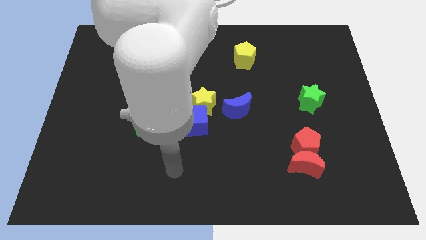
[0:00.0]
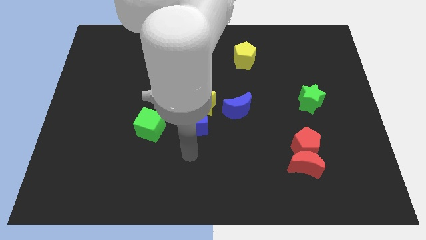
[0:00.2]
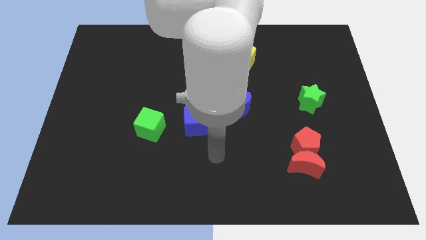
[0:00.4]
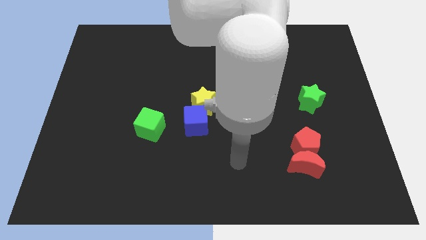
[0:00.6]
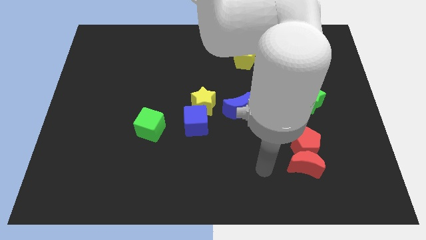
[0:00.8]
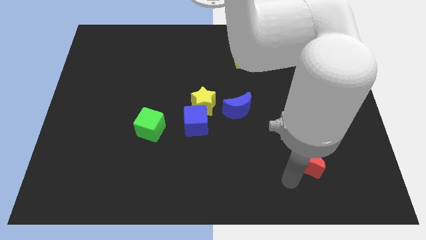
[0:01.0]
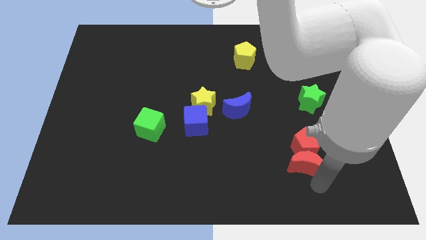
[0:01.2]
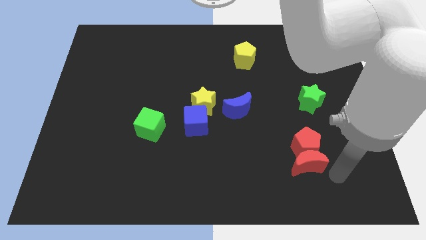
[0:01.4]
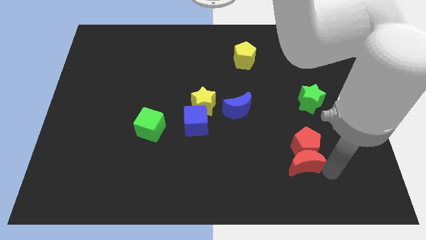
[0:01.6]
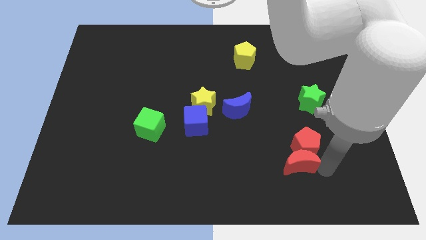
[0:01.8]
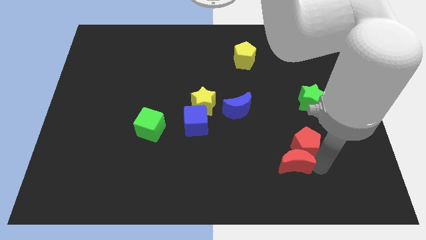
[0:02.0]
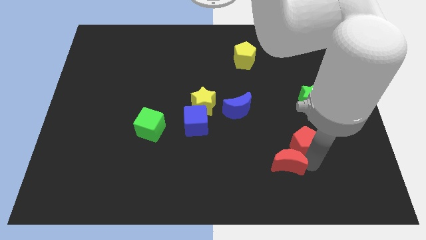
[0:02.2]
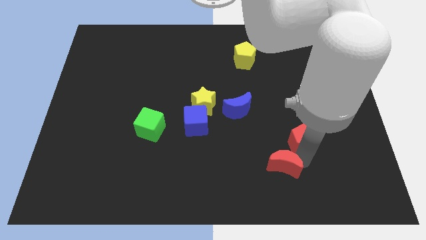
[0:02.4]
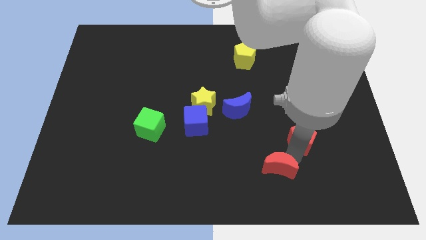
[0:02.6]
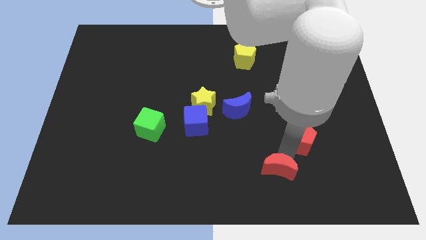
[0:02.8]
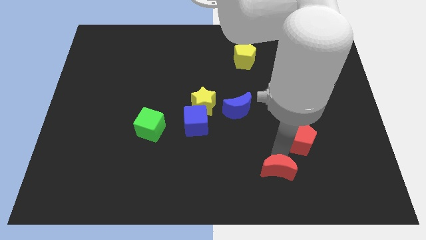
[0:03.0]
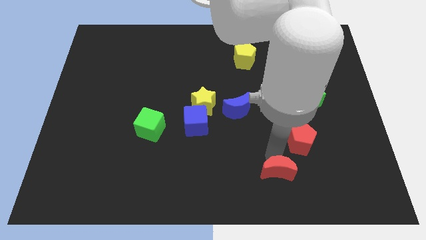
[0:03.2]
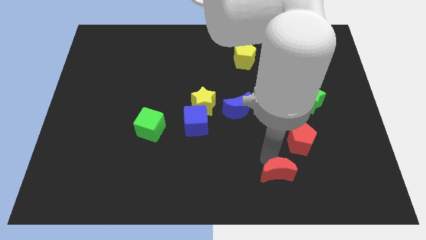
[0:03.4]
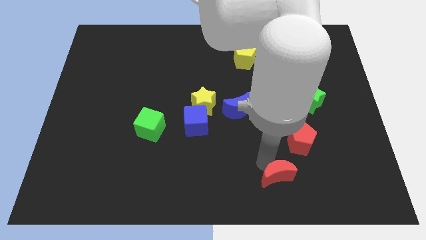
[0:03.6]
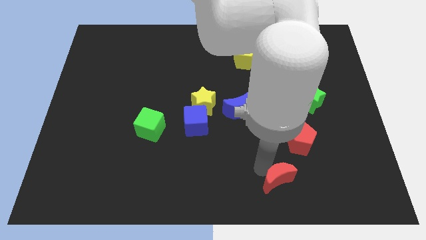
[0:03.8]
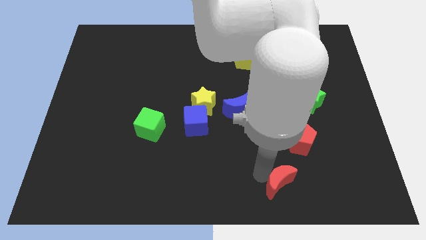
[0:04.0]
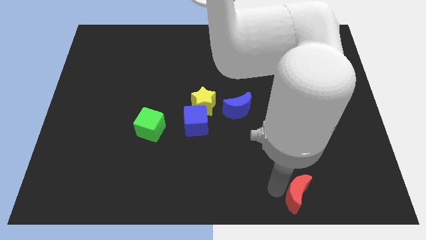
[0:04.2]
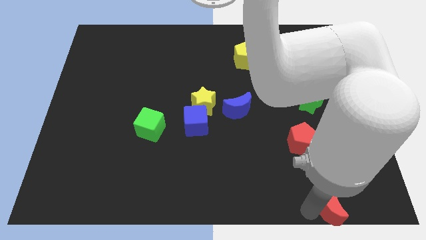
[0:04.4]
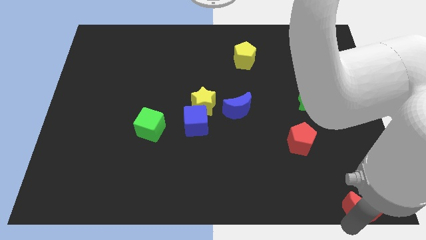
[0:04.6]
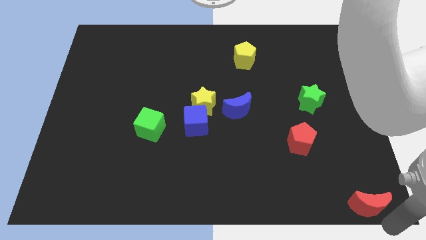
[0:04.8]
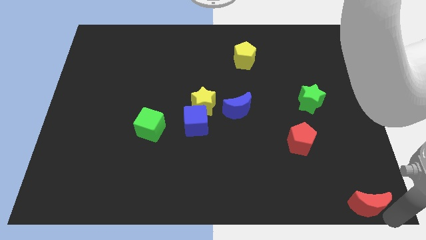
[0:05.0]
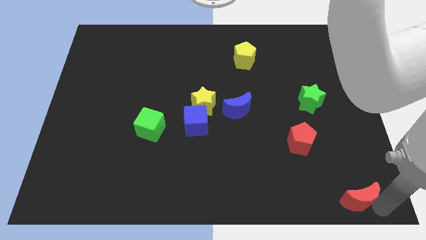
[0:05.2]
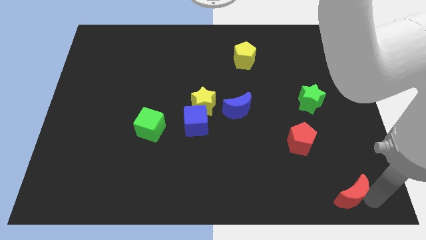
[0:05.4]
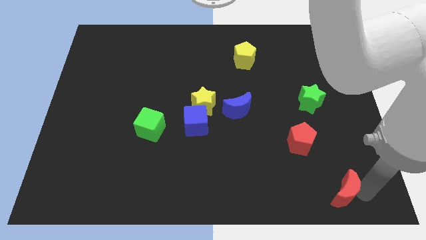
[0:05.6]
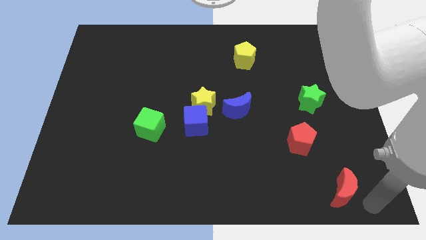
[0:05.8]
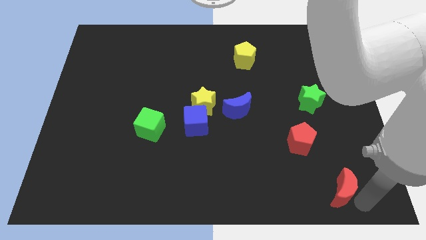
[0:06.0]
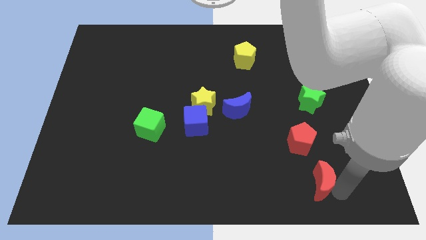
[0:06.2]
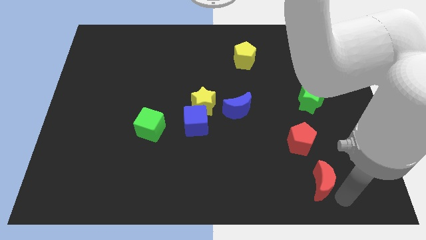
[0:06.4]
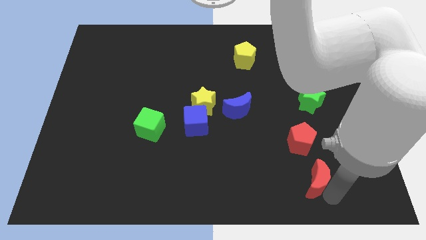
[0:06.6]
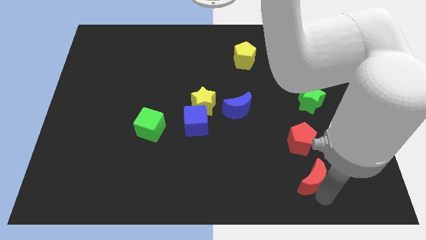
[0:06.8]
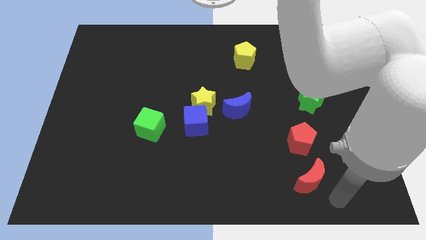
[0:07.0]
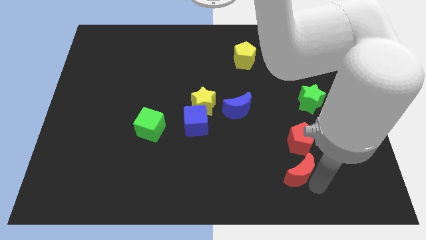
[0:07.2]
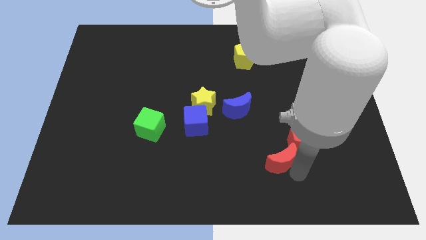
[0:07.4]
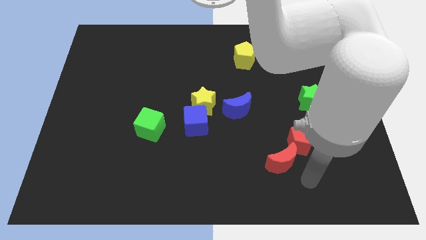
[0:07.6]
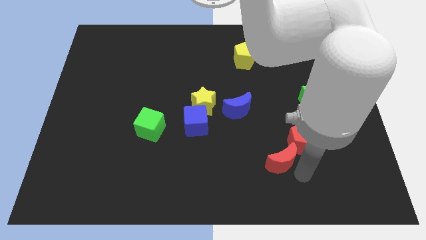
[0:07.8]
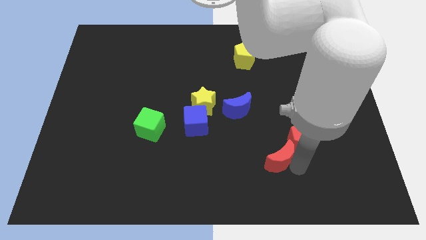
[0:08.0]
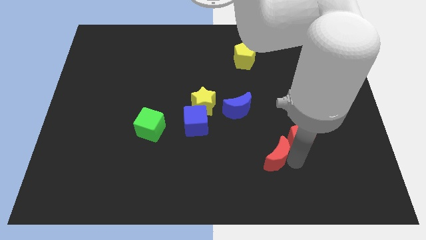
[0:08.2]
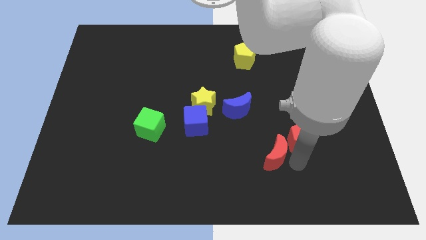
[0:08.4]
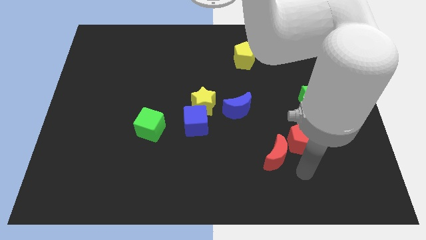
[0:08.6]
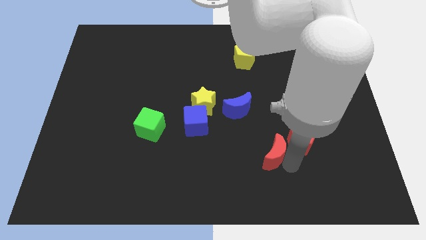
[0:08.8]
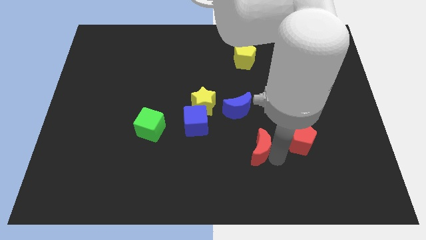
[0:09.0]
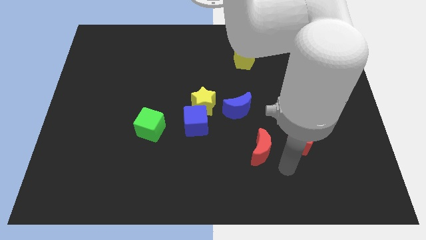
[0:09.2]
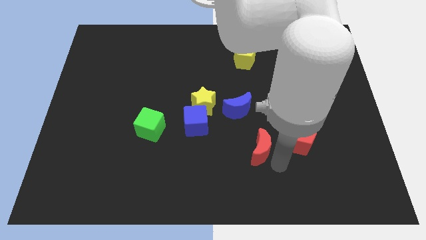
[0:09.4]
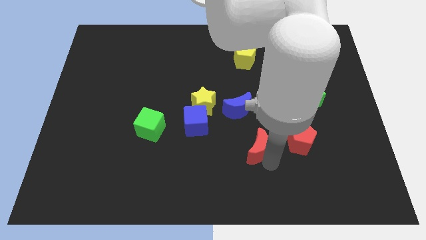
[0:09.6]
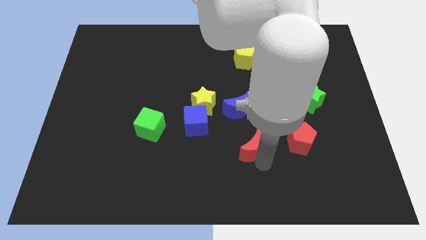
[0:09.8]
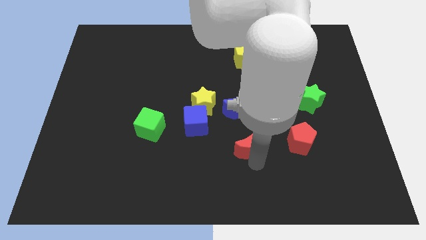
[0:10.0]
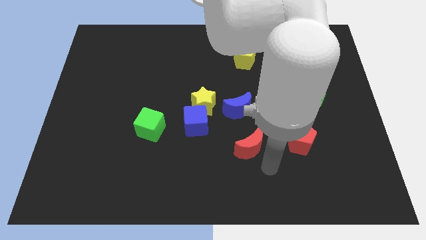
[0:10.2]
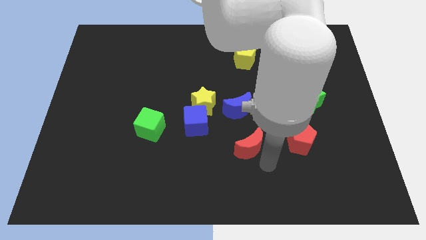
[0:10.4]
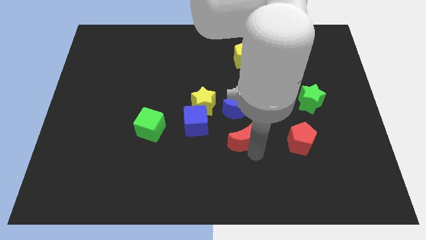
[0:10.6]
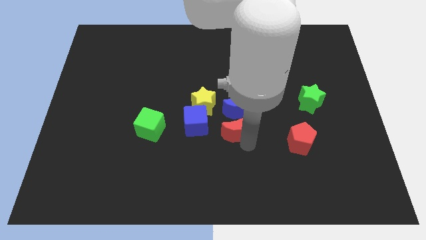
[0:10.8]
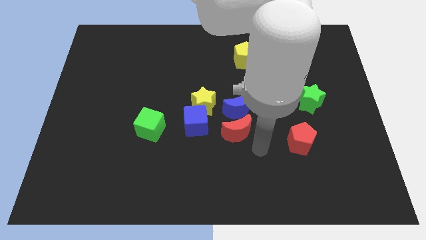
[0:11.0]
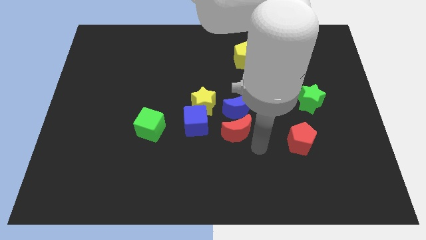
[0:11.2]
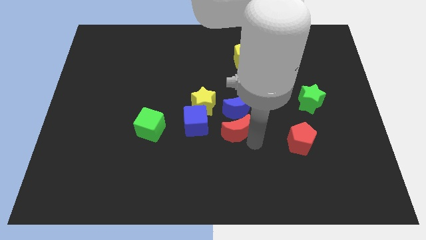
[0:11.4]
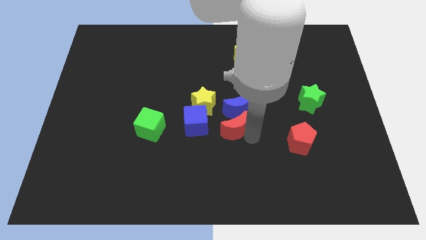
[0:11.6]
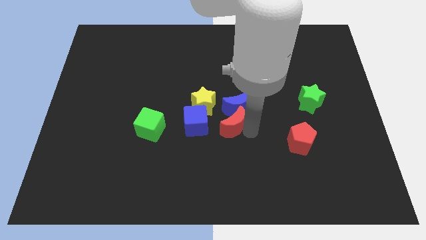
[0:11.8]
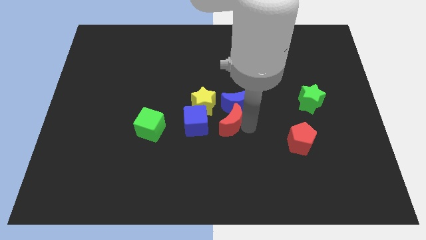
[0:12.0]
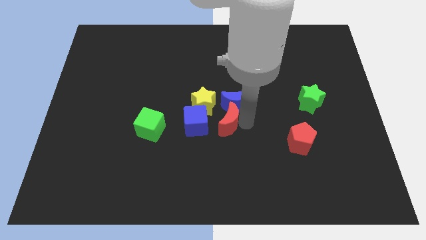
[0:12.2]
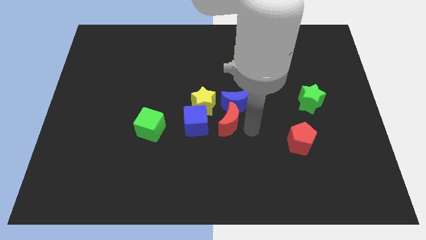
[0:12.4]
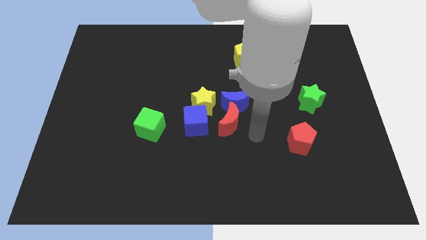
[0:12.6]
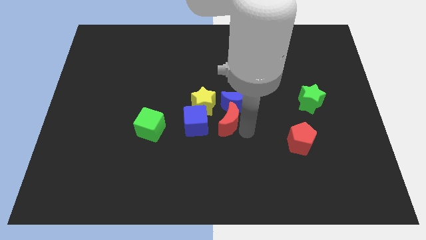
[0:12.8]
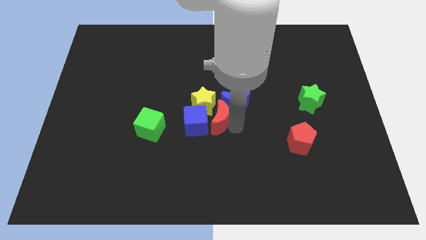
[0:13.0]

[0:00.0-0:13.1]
move the red moon next to the yellow star
